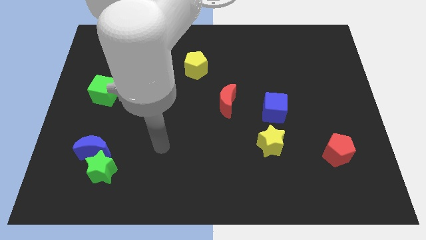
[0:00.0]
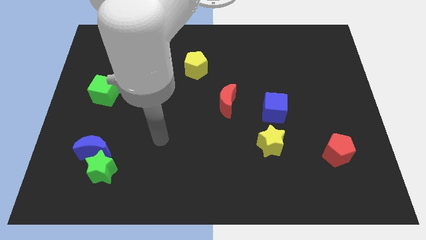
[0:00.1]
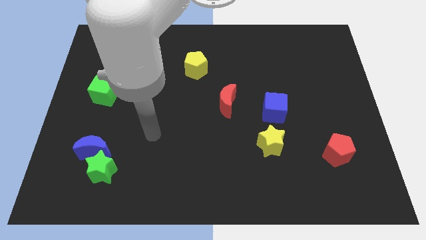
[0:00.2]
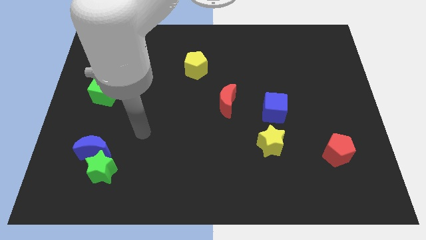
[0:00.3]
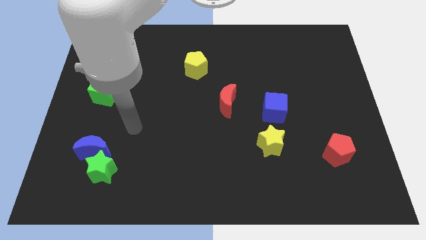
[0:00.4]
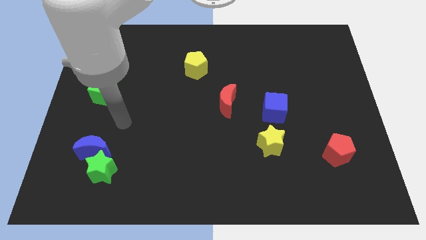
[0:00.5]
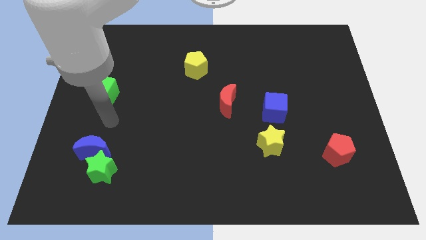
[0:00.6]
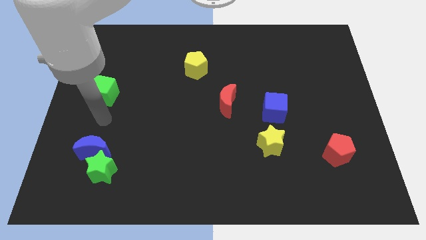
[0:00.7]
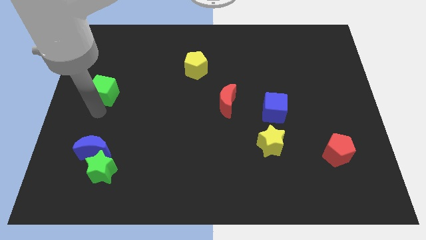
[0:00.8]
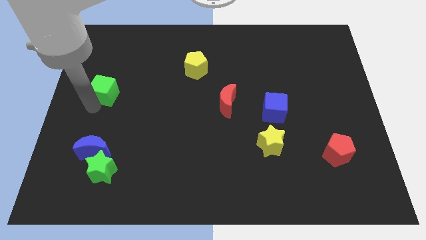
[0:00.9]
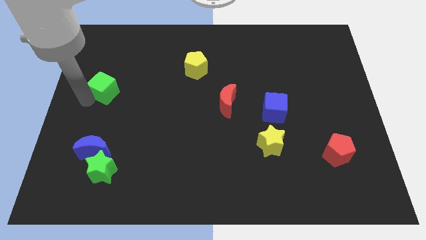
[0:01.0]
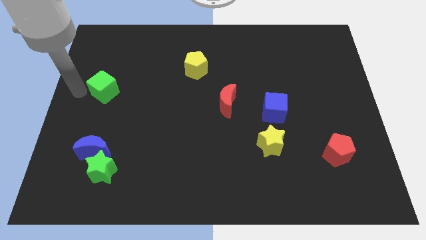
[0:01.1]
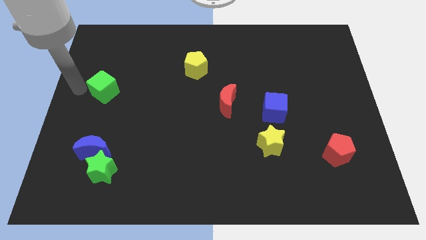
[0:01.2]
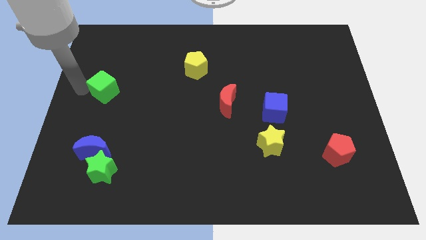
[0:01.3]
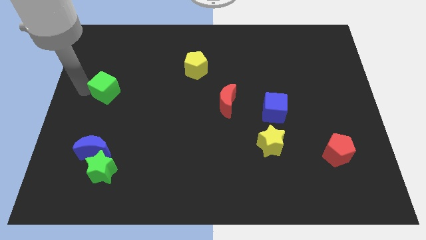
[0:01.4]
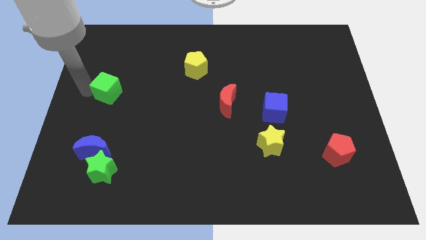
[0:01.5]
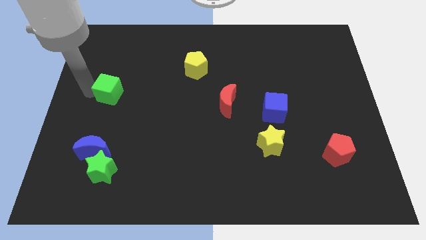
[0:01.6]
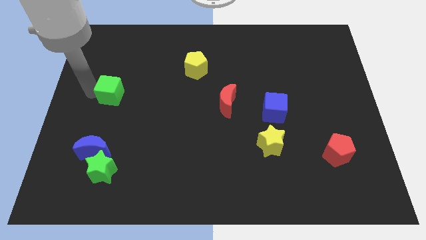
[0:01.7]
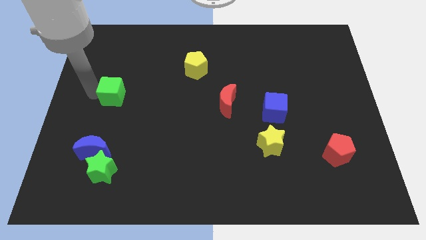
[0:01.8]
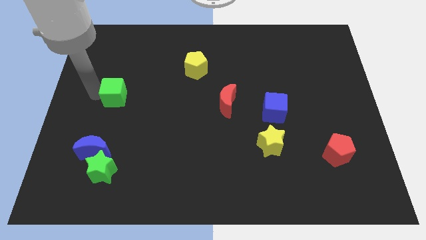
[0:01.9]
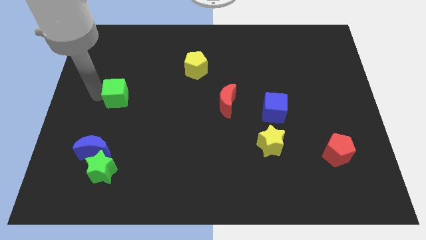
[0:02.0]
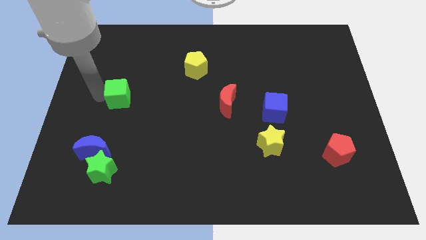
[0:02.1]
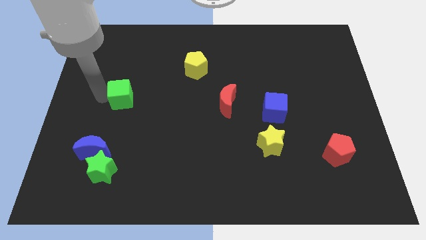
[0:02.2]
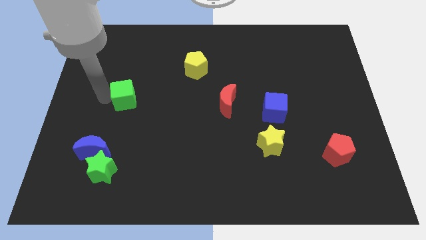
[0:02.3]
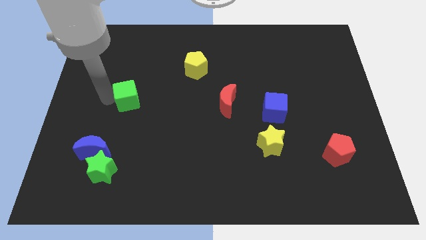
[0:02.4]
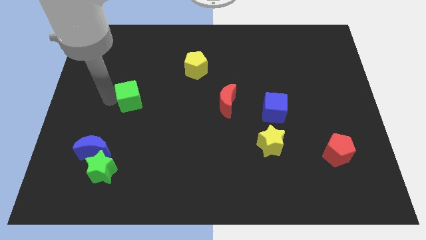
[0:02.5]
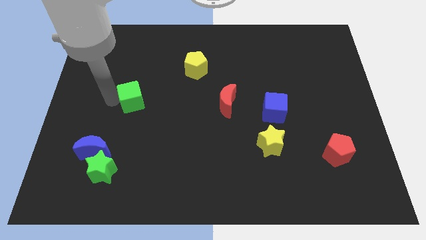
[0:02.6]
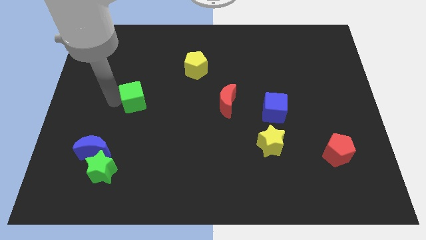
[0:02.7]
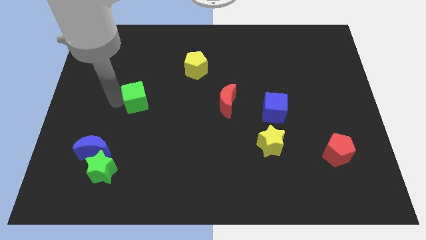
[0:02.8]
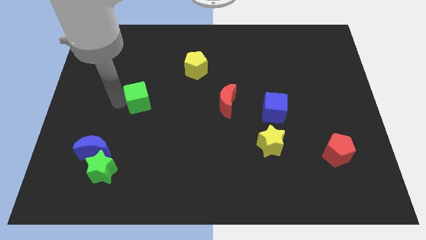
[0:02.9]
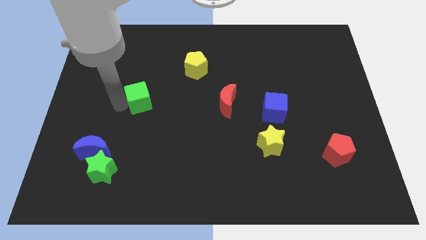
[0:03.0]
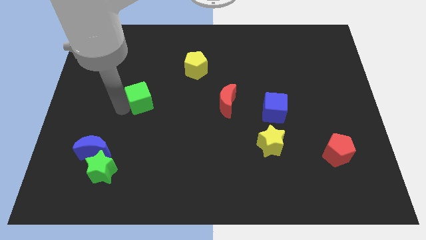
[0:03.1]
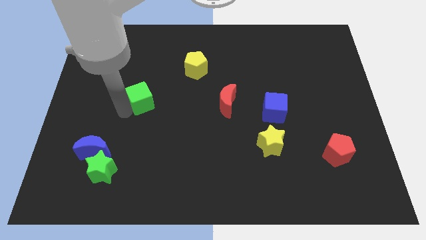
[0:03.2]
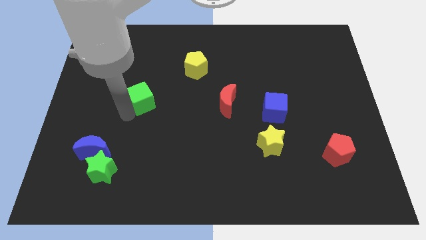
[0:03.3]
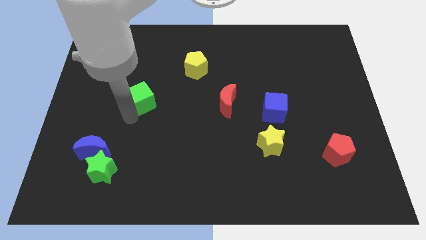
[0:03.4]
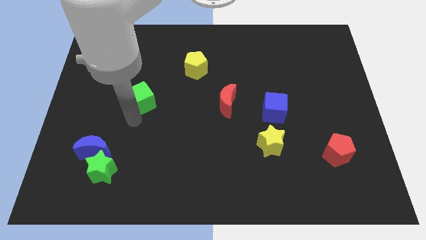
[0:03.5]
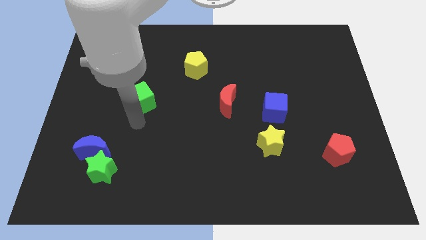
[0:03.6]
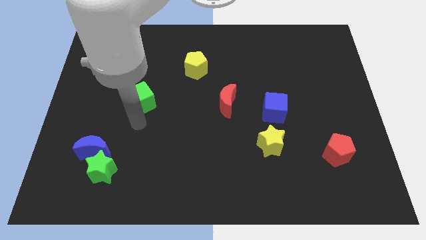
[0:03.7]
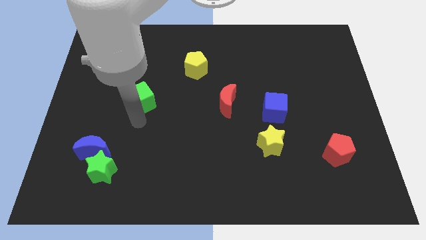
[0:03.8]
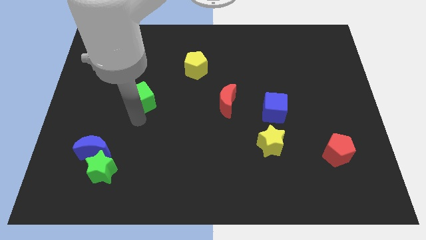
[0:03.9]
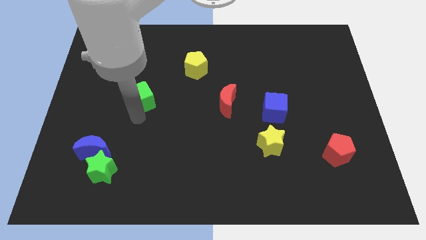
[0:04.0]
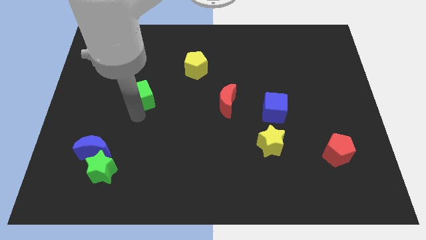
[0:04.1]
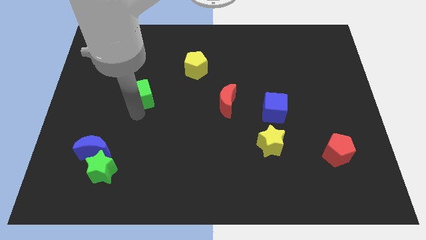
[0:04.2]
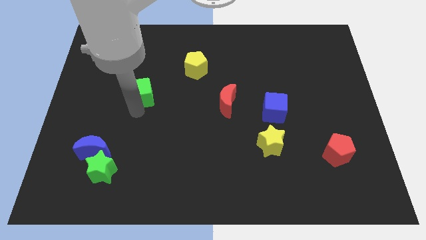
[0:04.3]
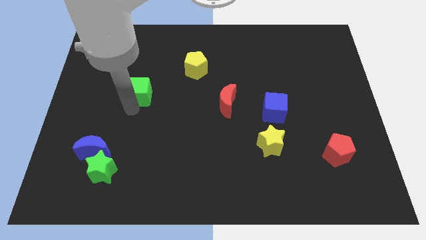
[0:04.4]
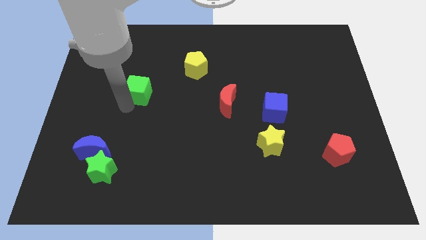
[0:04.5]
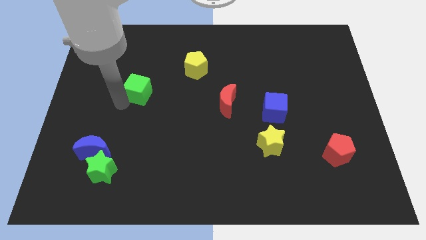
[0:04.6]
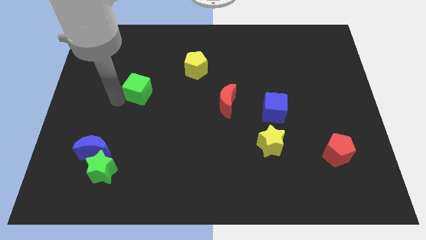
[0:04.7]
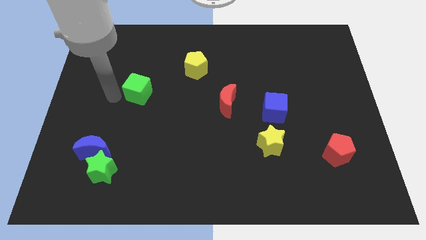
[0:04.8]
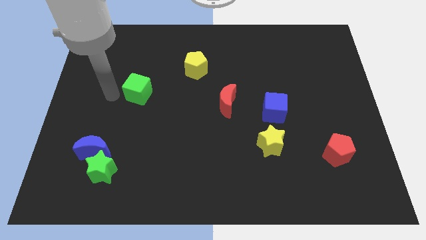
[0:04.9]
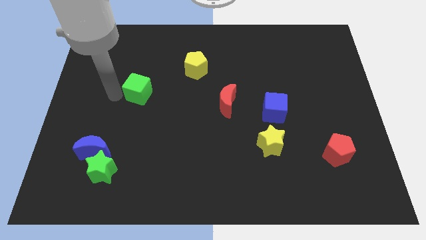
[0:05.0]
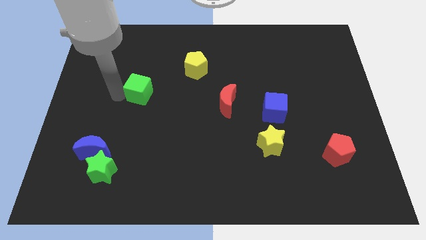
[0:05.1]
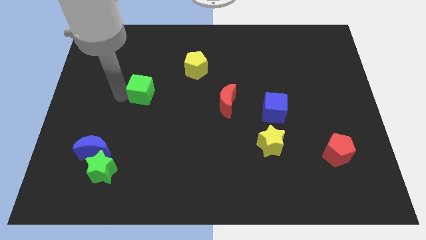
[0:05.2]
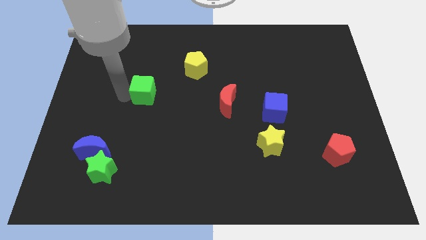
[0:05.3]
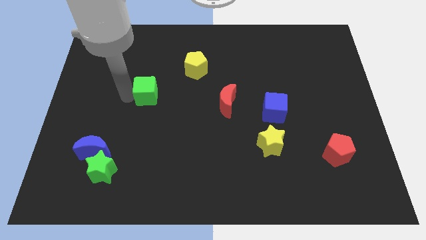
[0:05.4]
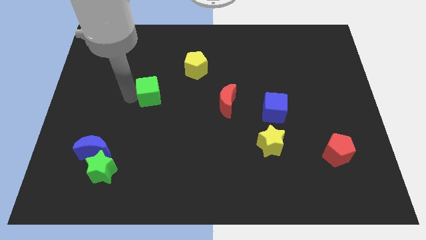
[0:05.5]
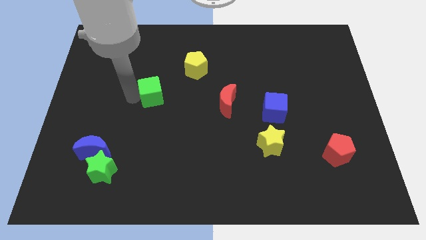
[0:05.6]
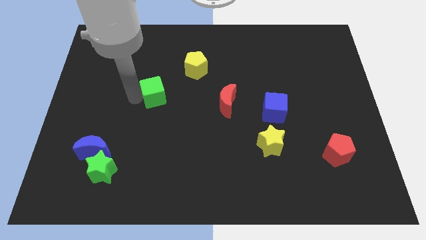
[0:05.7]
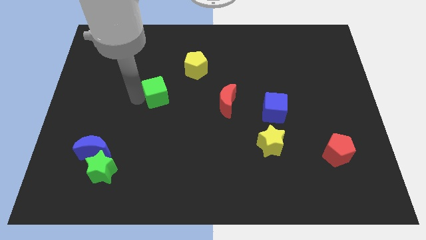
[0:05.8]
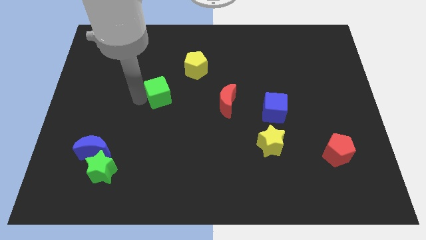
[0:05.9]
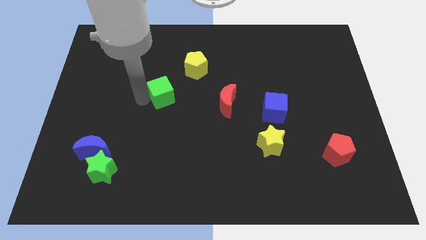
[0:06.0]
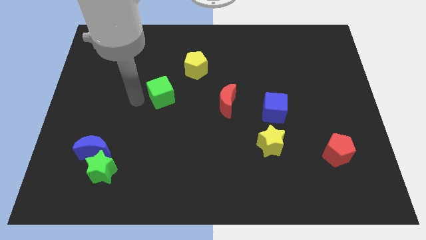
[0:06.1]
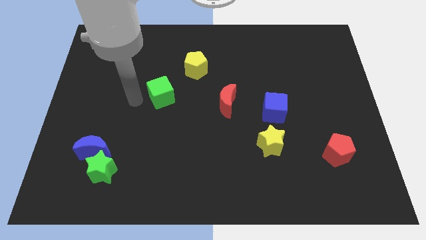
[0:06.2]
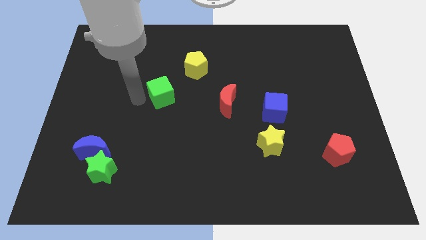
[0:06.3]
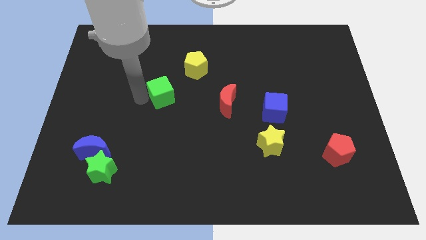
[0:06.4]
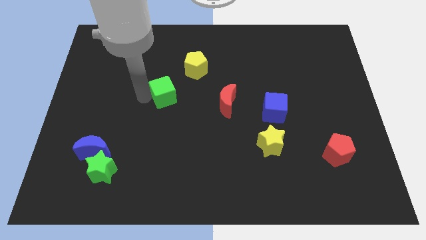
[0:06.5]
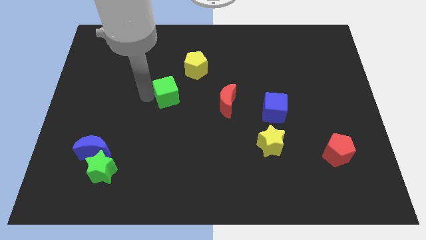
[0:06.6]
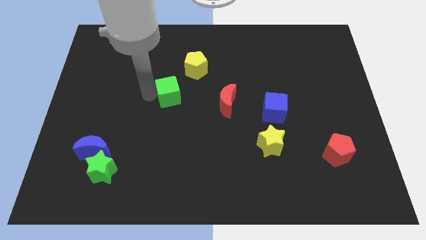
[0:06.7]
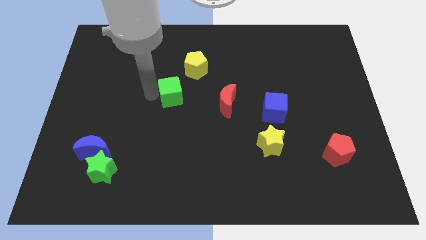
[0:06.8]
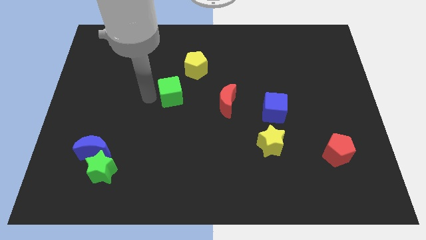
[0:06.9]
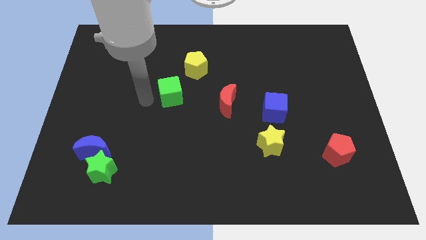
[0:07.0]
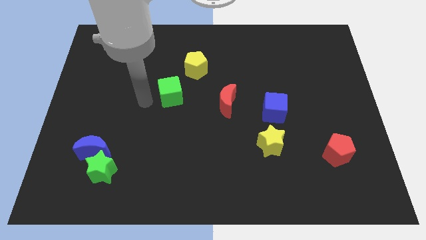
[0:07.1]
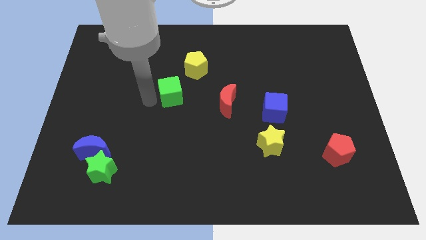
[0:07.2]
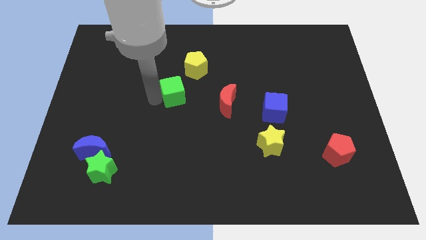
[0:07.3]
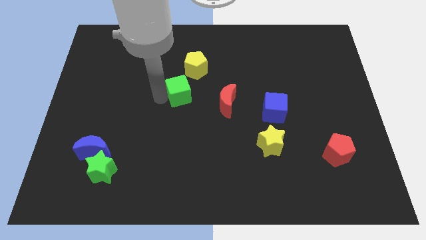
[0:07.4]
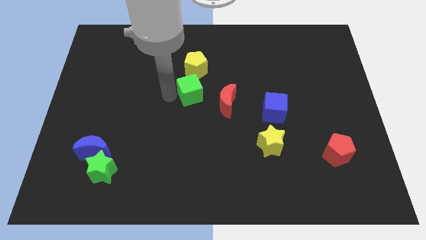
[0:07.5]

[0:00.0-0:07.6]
slide the green cube right

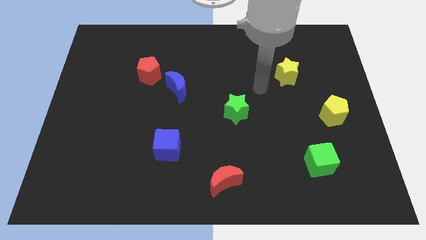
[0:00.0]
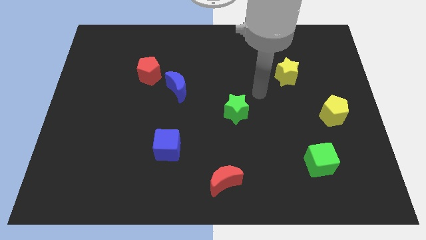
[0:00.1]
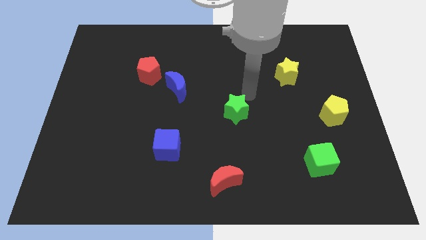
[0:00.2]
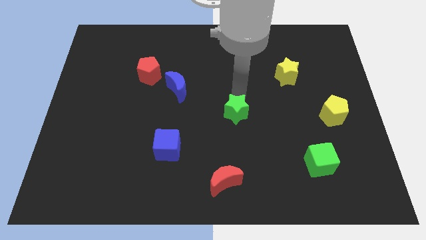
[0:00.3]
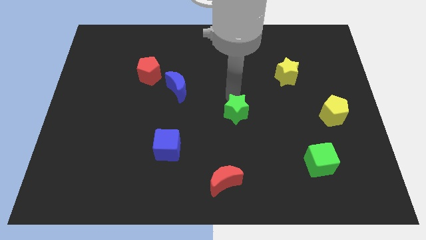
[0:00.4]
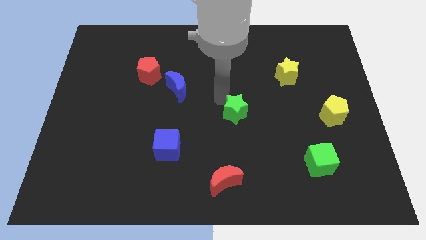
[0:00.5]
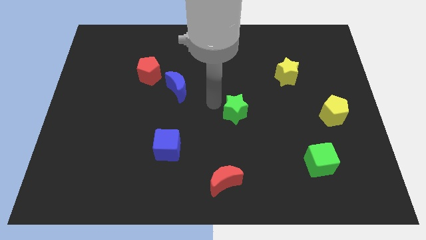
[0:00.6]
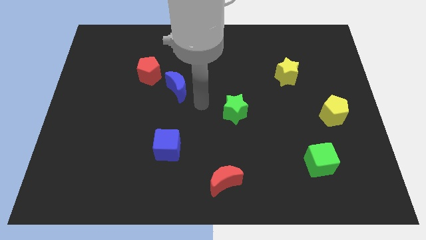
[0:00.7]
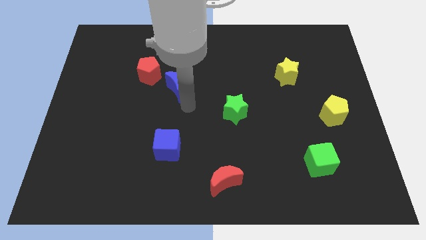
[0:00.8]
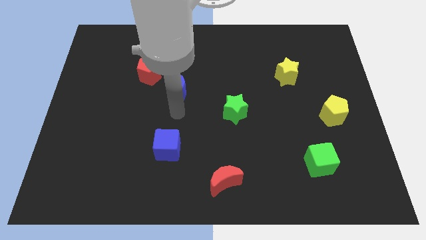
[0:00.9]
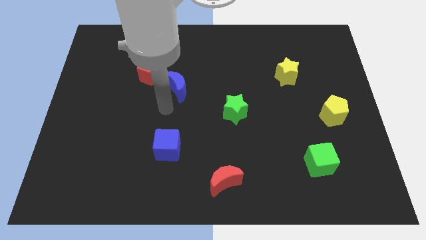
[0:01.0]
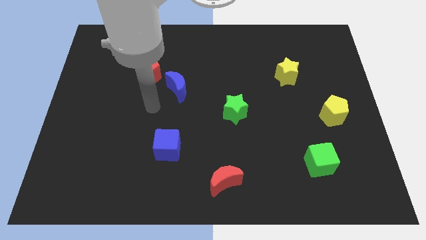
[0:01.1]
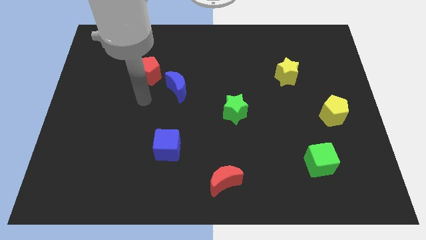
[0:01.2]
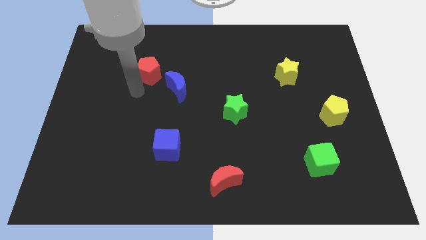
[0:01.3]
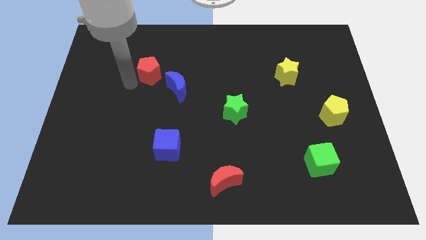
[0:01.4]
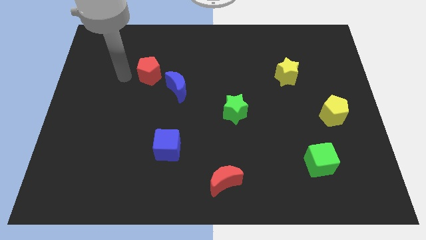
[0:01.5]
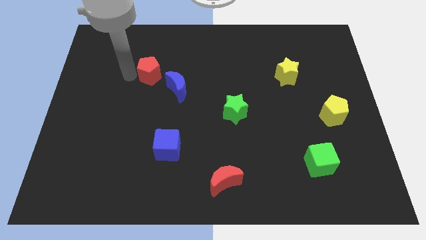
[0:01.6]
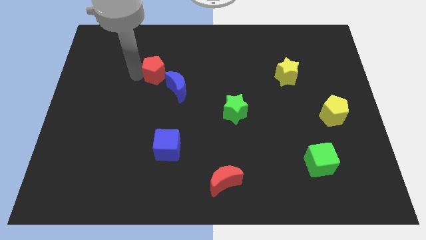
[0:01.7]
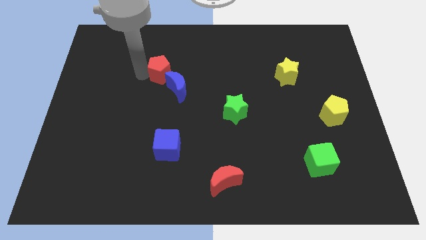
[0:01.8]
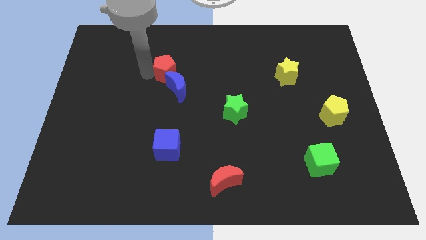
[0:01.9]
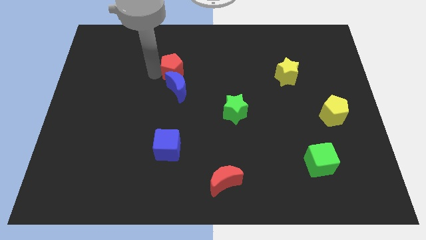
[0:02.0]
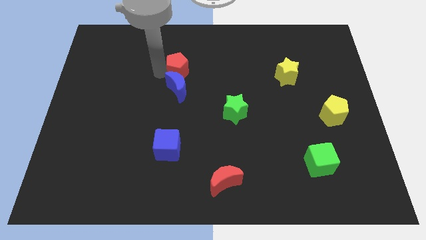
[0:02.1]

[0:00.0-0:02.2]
slightly push the red pentagon to the right
